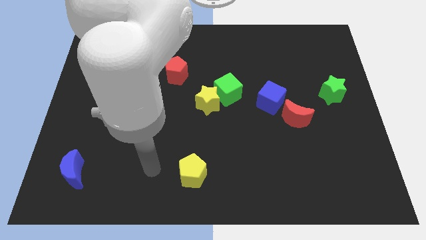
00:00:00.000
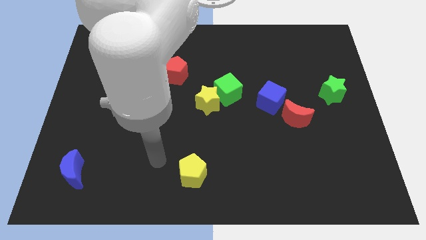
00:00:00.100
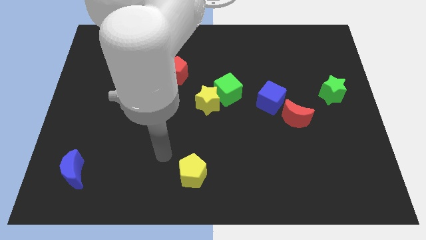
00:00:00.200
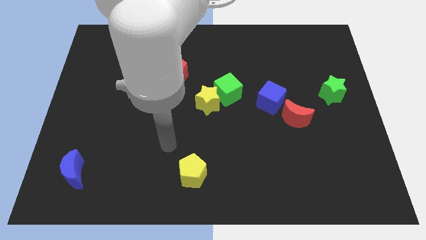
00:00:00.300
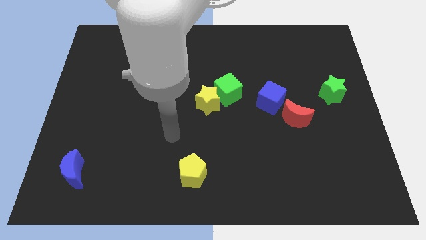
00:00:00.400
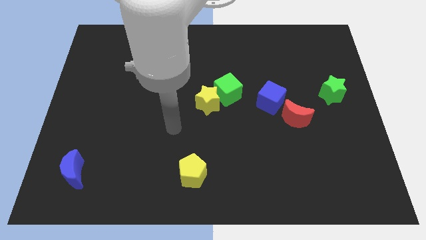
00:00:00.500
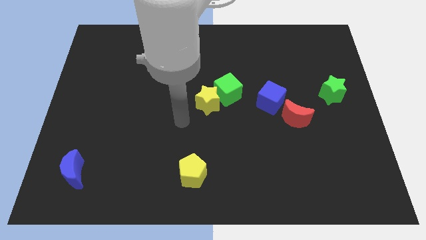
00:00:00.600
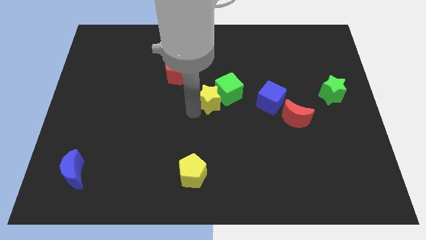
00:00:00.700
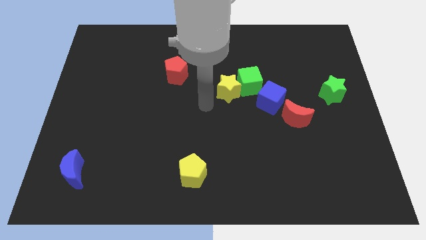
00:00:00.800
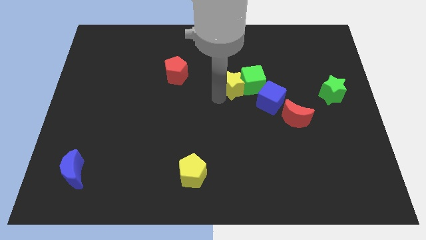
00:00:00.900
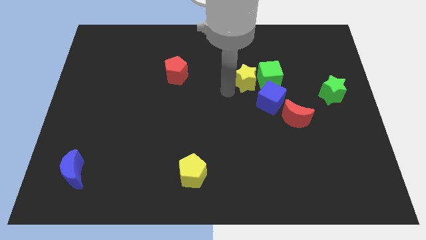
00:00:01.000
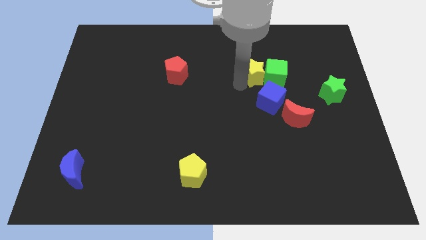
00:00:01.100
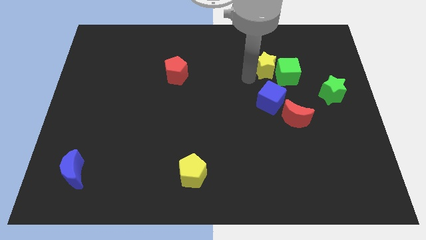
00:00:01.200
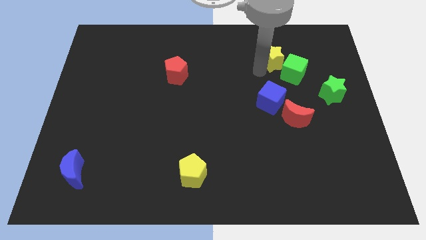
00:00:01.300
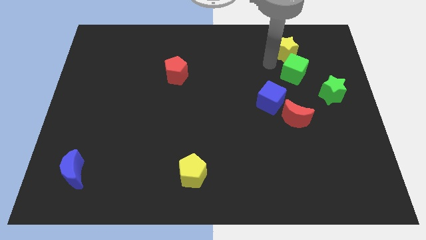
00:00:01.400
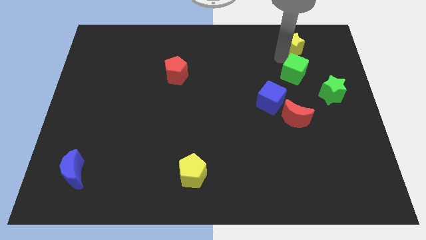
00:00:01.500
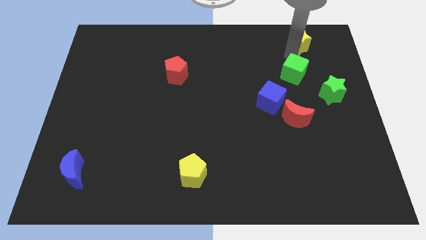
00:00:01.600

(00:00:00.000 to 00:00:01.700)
separate the green cube from the yellow star

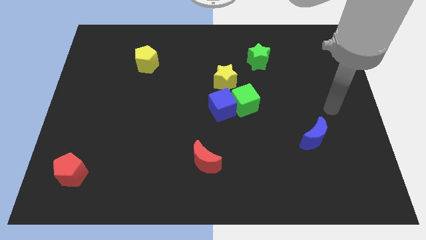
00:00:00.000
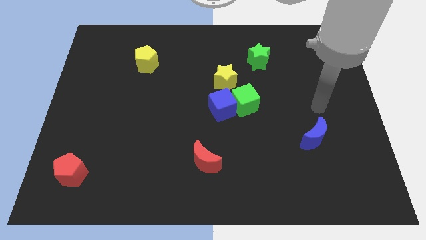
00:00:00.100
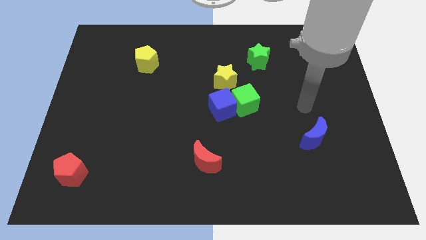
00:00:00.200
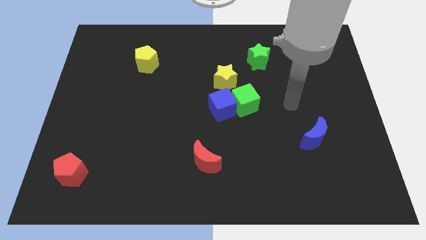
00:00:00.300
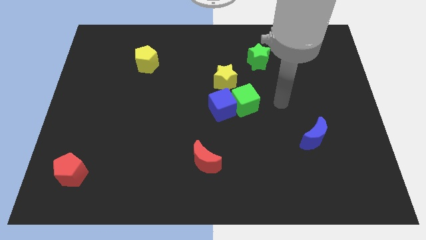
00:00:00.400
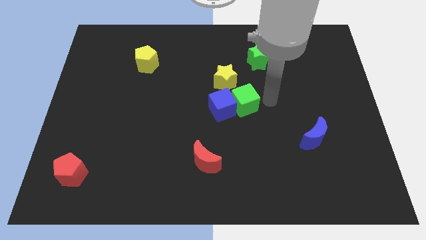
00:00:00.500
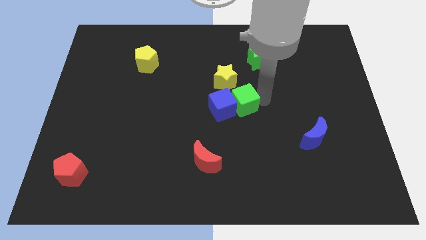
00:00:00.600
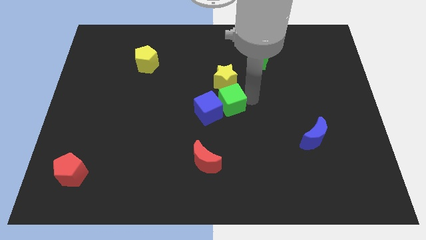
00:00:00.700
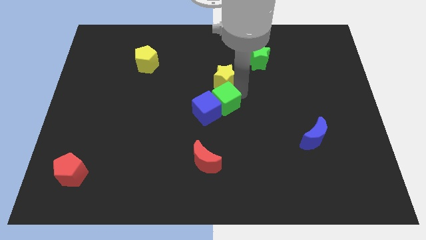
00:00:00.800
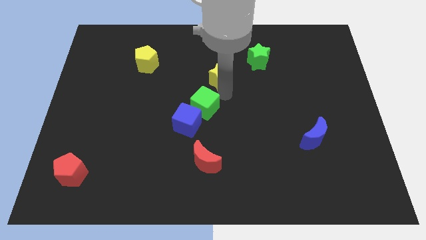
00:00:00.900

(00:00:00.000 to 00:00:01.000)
separate the blue cube from the green cube and yellow star

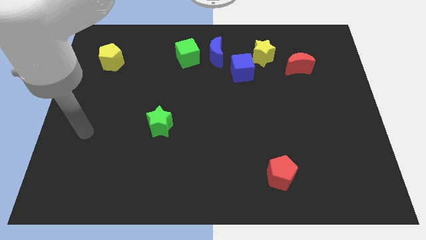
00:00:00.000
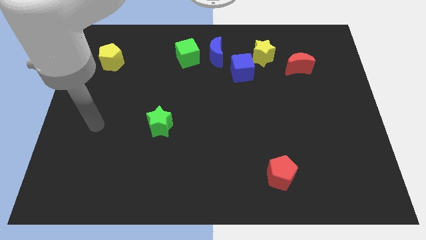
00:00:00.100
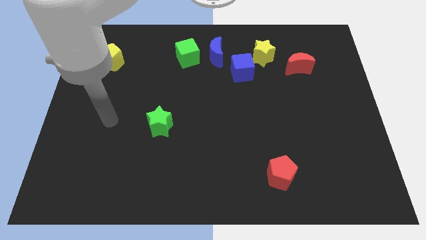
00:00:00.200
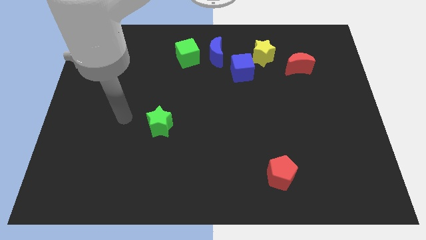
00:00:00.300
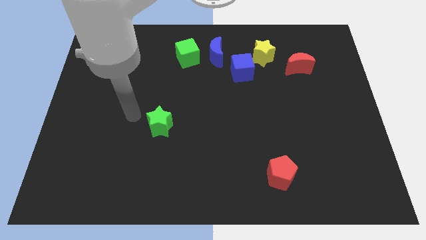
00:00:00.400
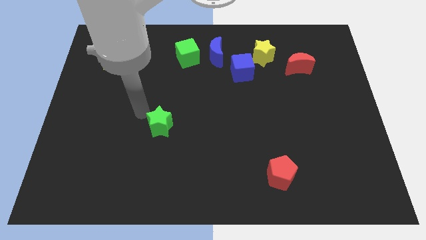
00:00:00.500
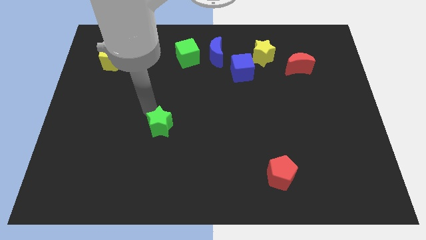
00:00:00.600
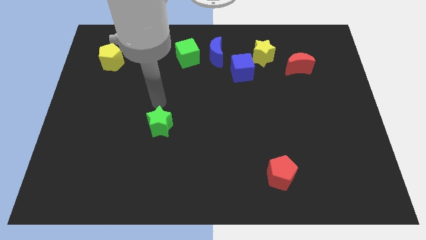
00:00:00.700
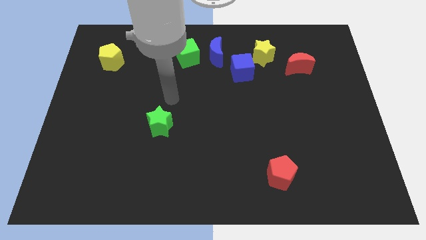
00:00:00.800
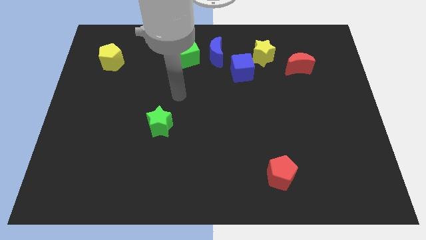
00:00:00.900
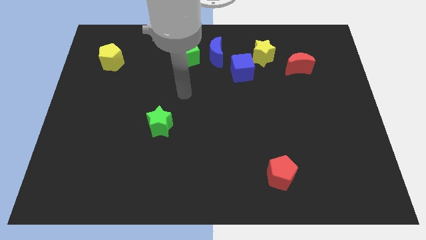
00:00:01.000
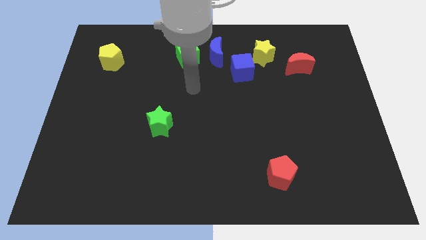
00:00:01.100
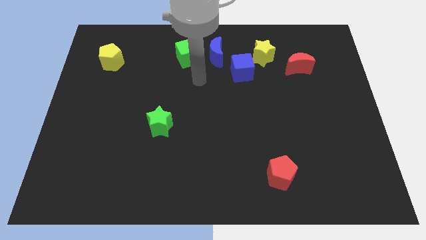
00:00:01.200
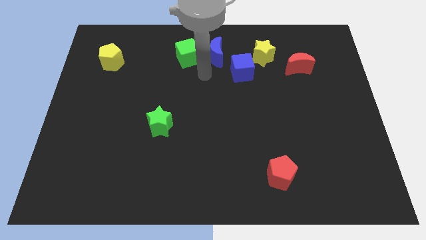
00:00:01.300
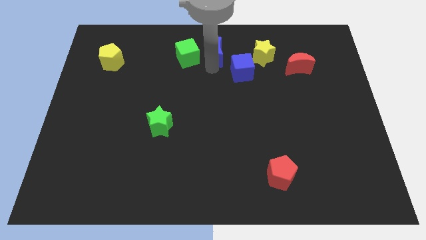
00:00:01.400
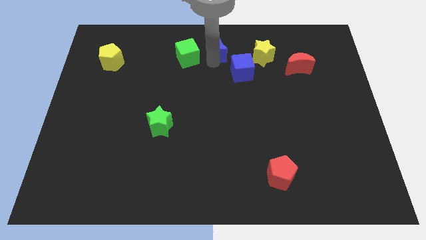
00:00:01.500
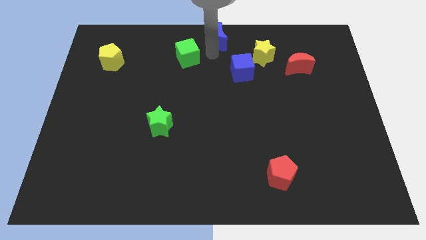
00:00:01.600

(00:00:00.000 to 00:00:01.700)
separate the green cube from the blue moon

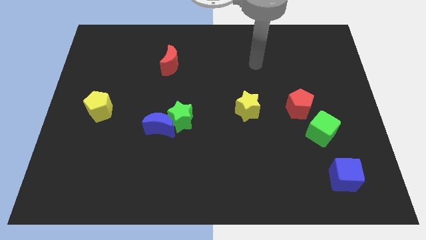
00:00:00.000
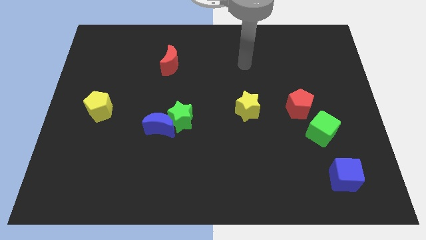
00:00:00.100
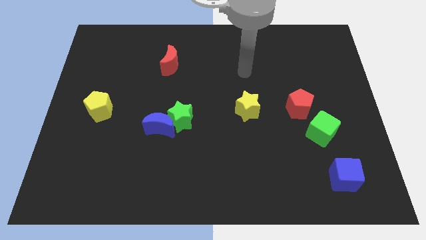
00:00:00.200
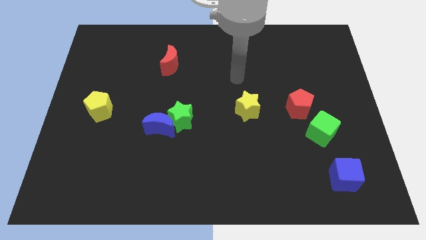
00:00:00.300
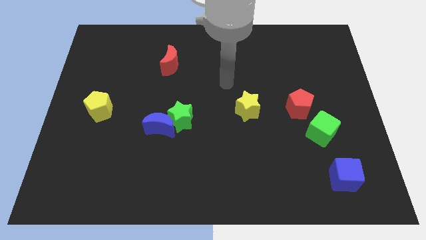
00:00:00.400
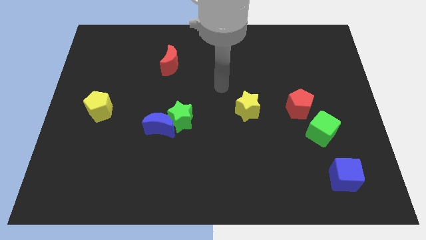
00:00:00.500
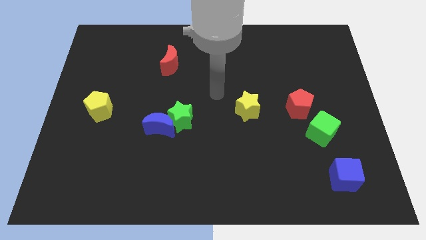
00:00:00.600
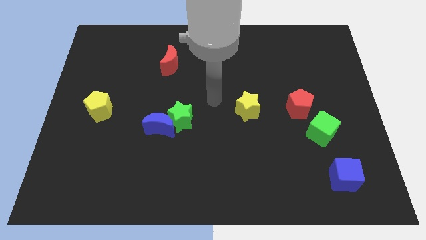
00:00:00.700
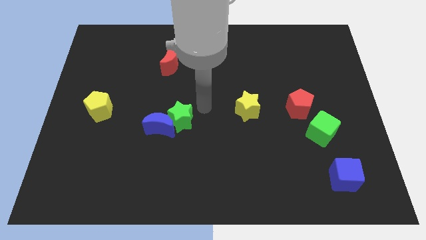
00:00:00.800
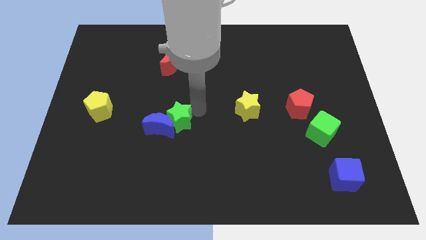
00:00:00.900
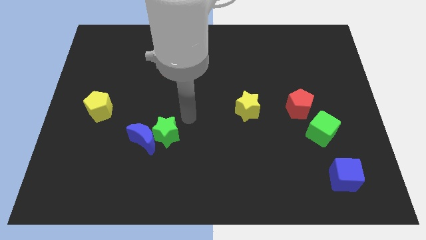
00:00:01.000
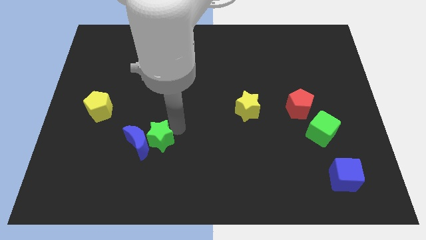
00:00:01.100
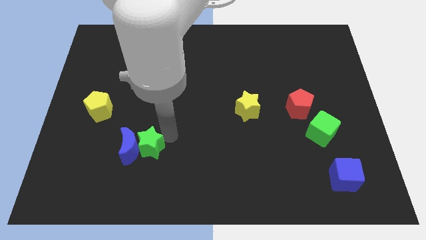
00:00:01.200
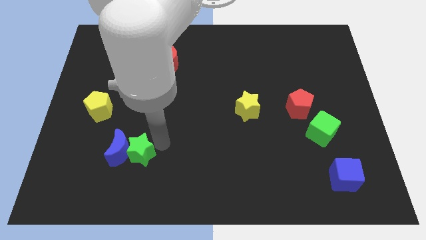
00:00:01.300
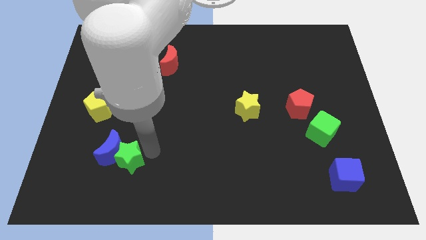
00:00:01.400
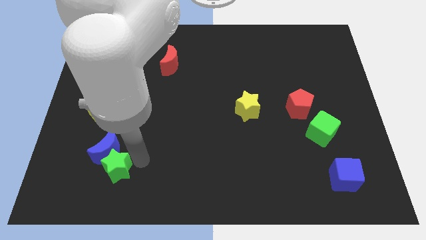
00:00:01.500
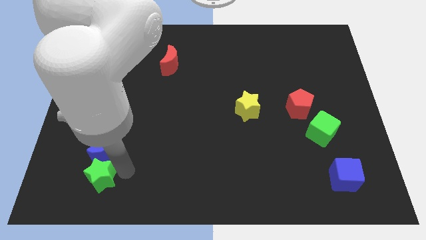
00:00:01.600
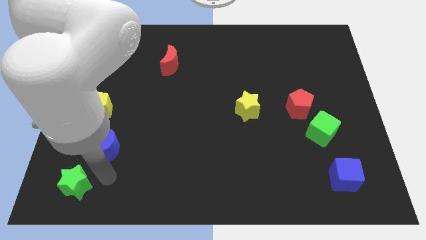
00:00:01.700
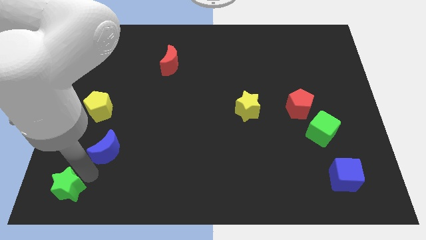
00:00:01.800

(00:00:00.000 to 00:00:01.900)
move the blue moon away from the green star

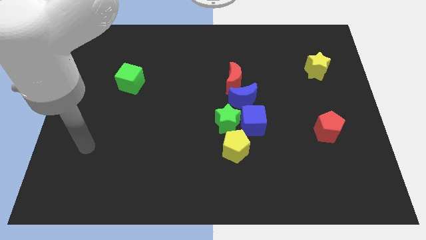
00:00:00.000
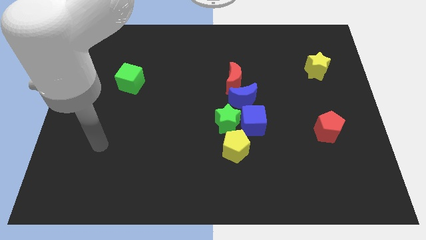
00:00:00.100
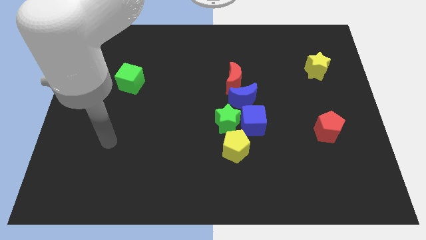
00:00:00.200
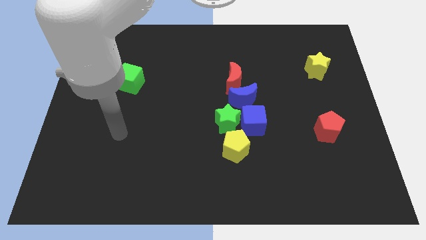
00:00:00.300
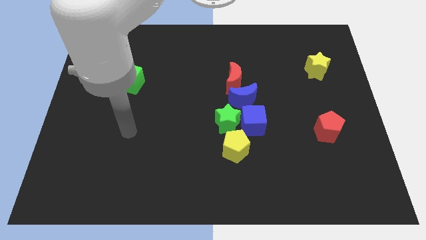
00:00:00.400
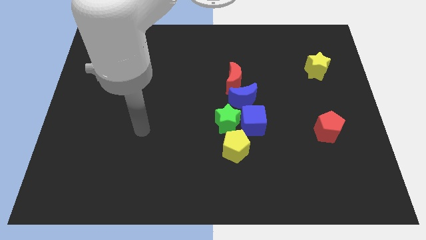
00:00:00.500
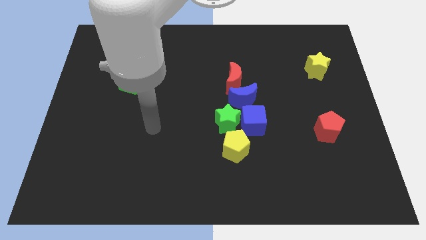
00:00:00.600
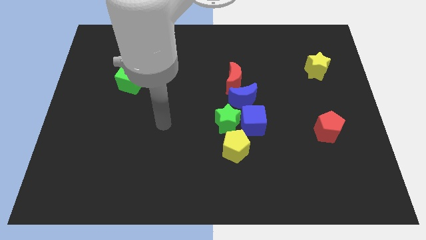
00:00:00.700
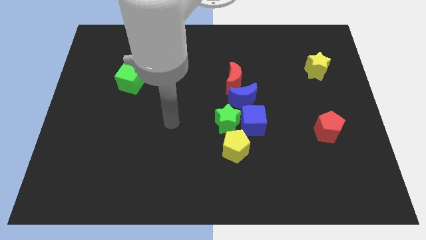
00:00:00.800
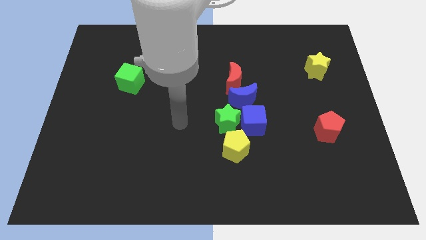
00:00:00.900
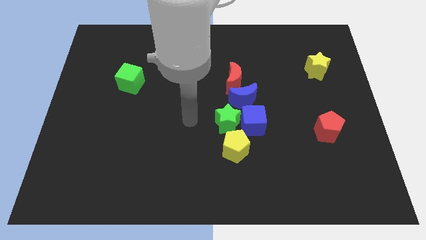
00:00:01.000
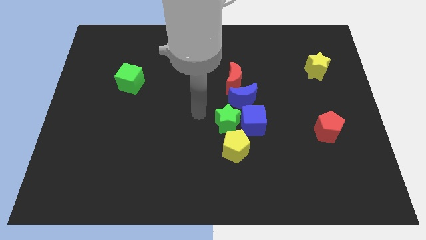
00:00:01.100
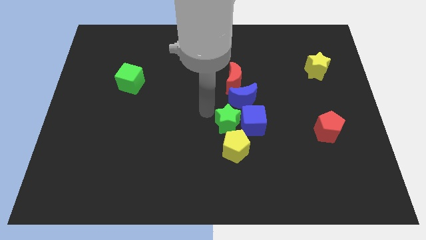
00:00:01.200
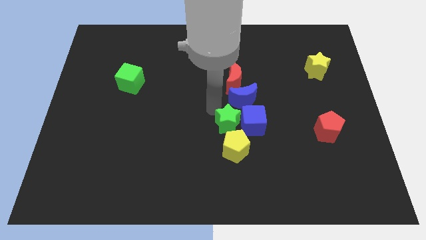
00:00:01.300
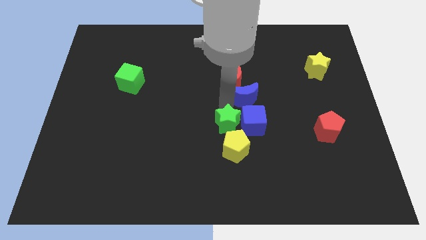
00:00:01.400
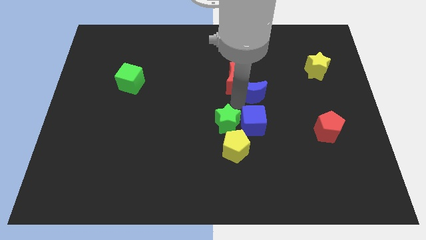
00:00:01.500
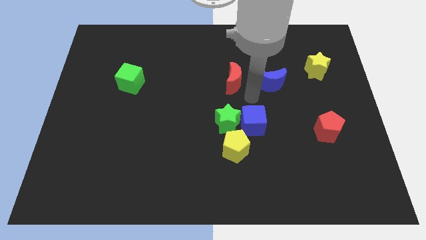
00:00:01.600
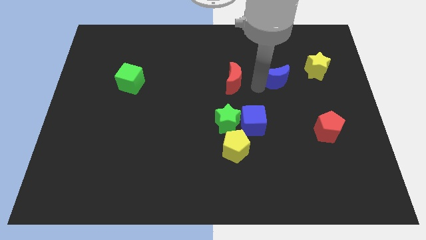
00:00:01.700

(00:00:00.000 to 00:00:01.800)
separate the red moon from the blue moon

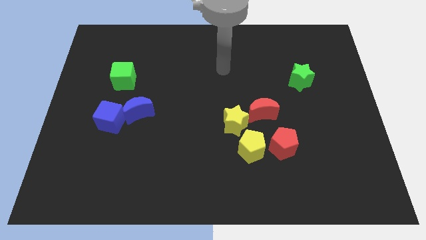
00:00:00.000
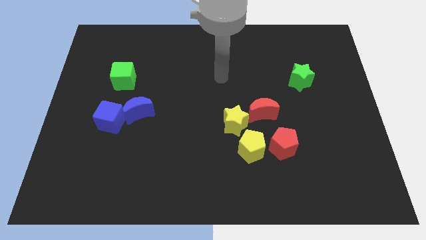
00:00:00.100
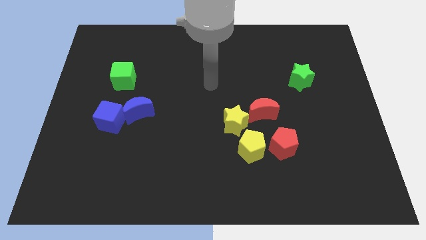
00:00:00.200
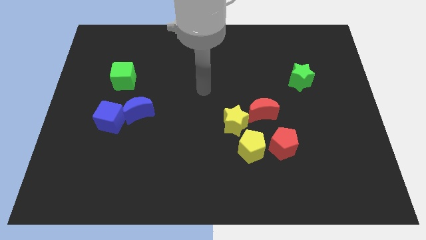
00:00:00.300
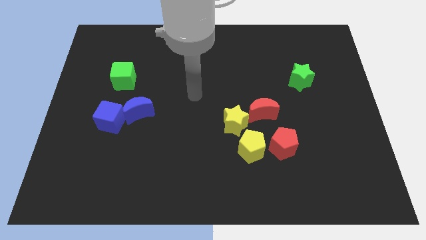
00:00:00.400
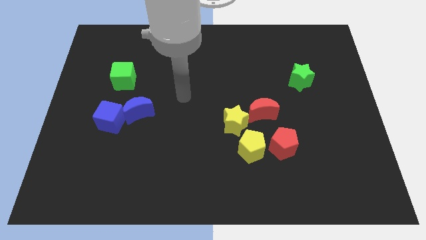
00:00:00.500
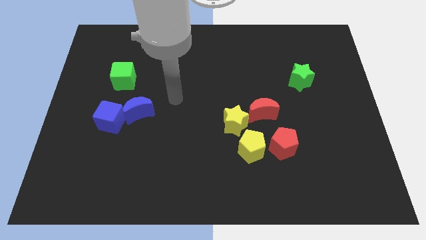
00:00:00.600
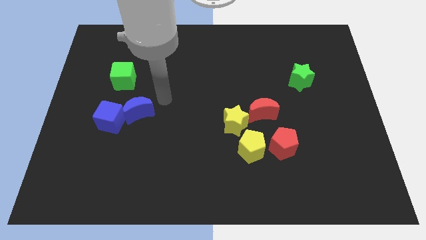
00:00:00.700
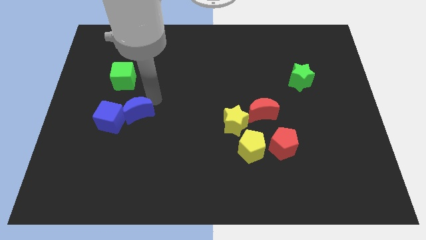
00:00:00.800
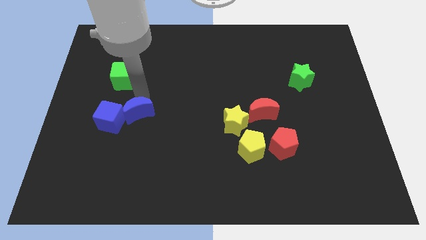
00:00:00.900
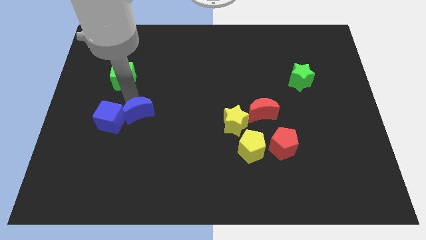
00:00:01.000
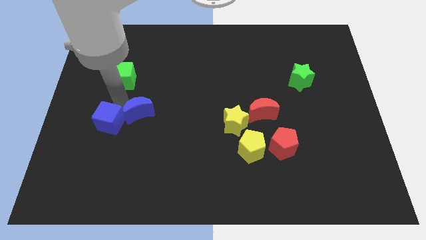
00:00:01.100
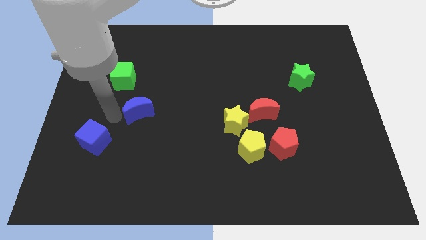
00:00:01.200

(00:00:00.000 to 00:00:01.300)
separate the blue moon from the blue cube
